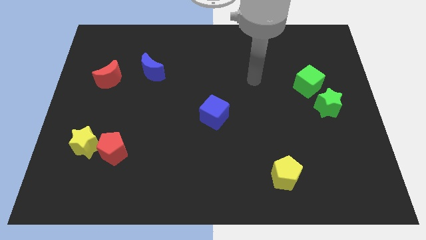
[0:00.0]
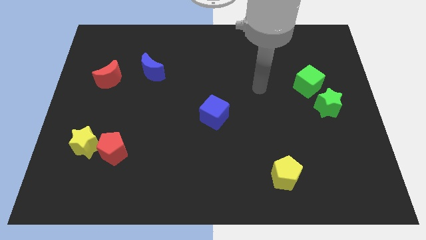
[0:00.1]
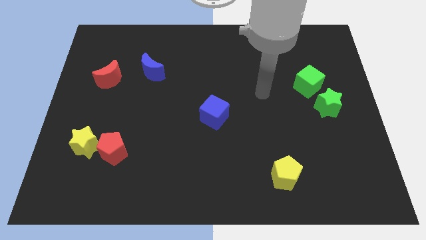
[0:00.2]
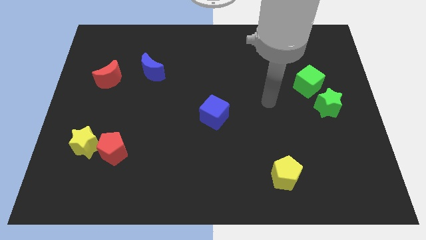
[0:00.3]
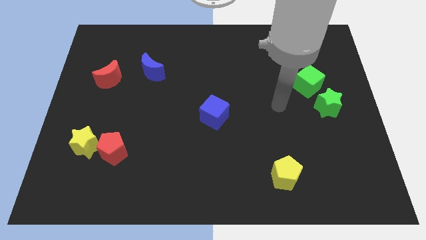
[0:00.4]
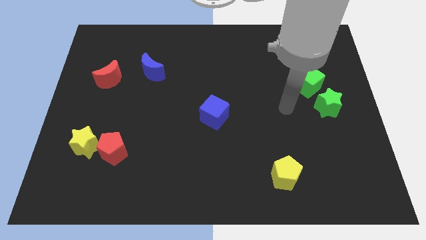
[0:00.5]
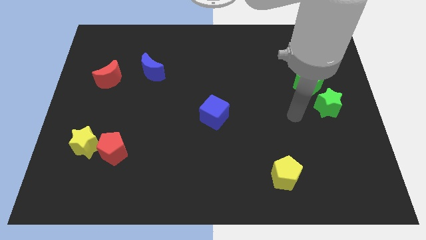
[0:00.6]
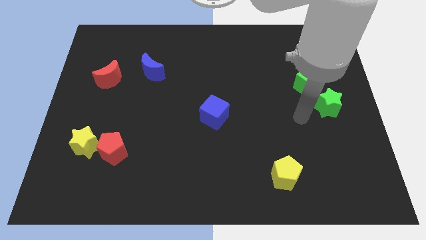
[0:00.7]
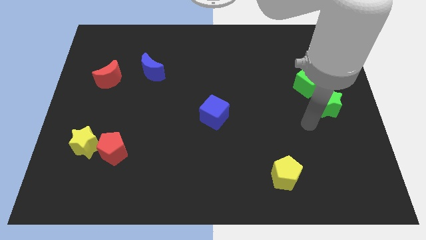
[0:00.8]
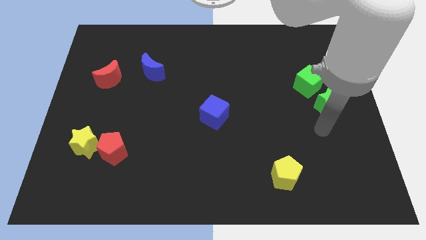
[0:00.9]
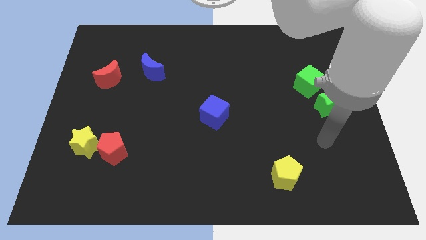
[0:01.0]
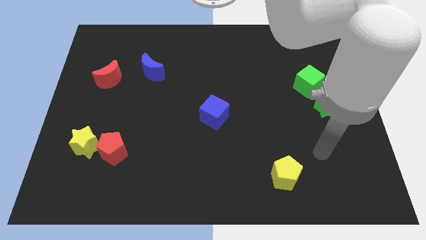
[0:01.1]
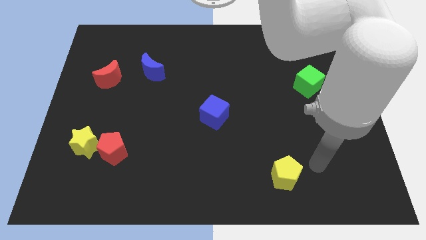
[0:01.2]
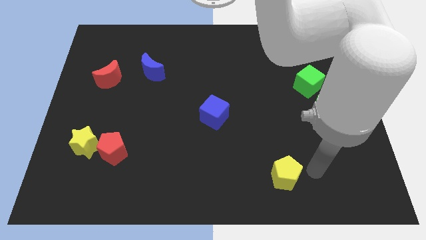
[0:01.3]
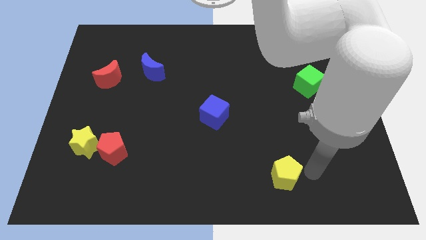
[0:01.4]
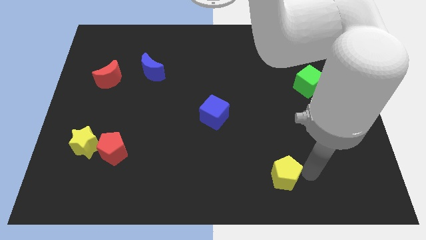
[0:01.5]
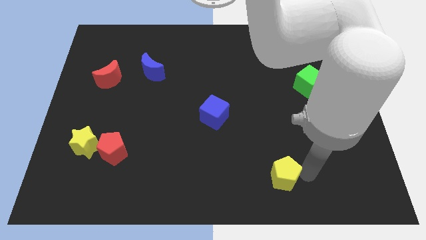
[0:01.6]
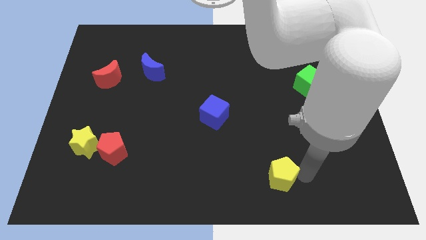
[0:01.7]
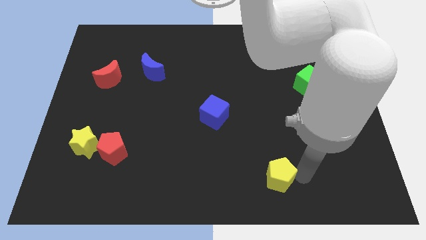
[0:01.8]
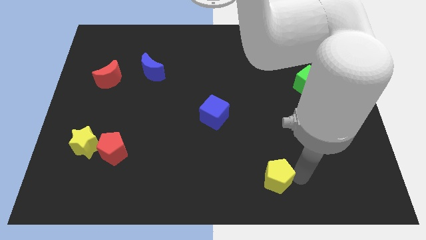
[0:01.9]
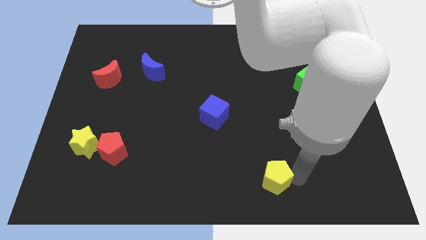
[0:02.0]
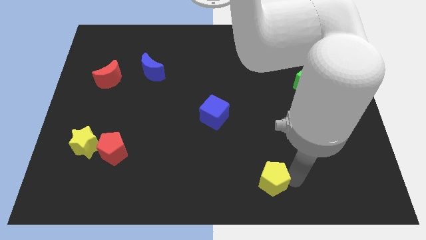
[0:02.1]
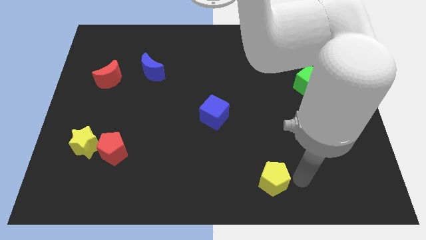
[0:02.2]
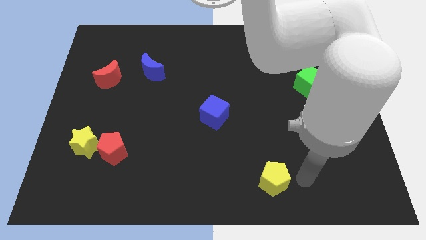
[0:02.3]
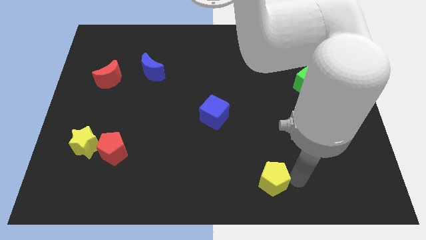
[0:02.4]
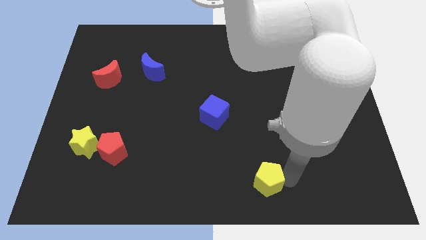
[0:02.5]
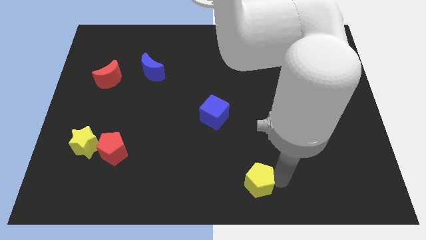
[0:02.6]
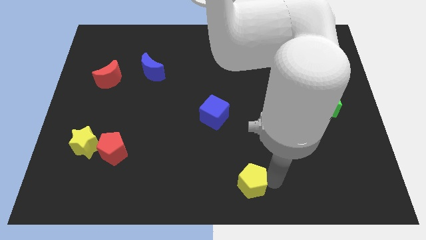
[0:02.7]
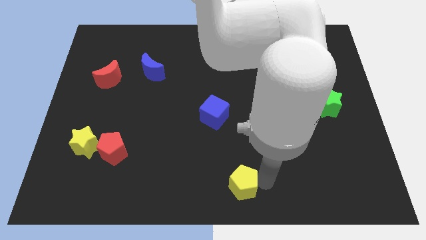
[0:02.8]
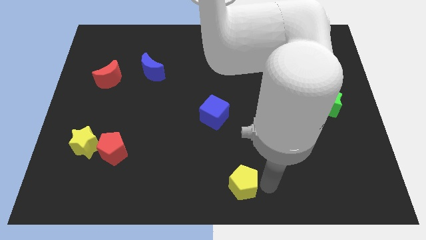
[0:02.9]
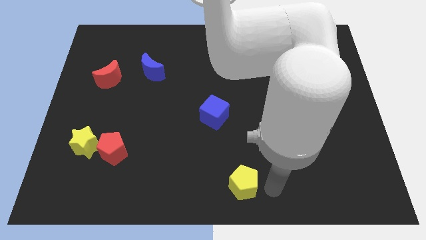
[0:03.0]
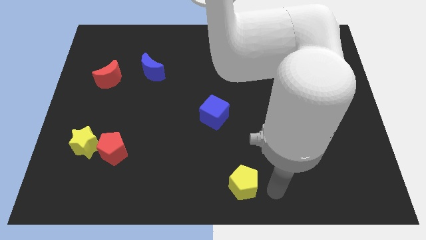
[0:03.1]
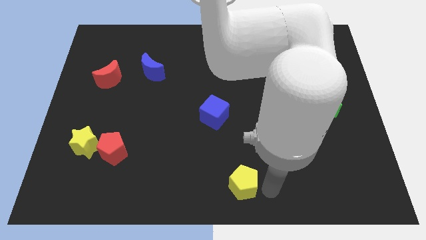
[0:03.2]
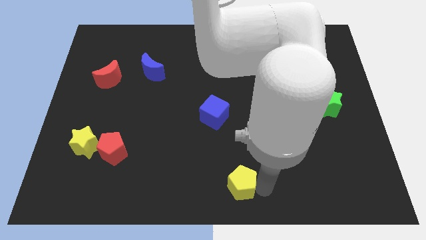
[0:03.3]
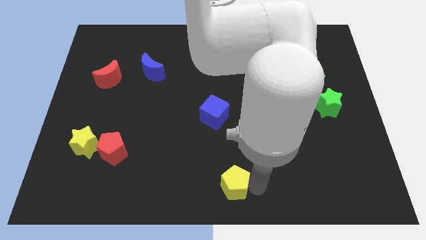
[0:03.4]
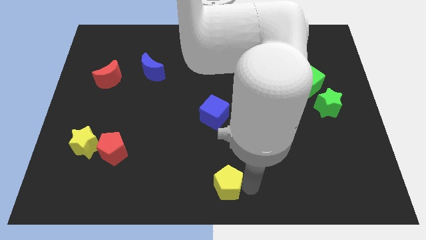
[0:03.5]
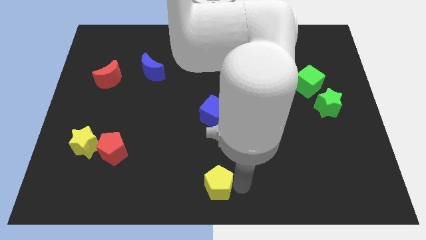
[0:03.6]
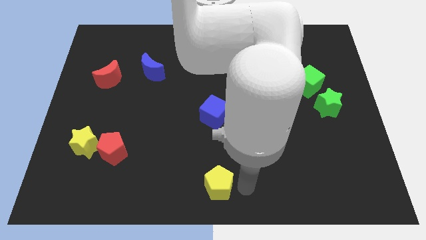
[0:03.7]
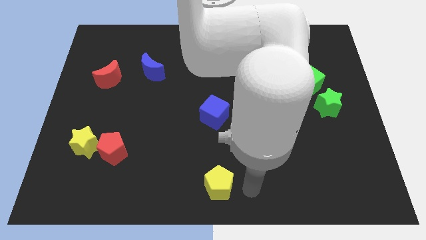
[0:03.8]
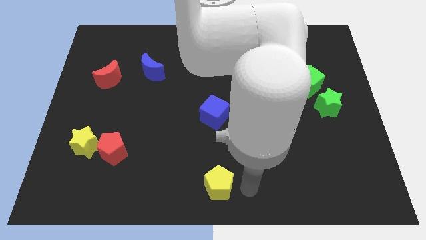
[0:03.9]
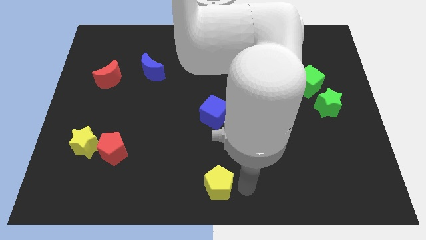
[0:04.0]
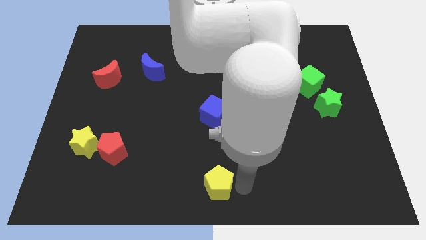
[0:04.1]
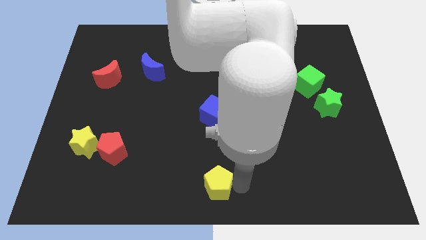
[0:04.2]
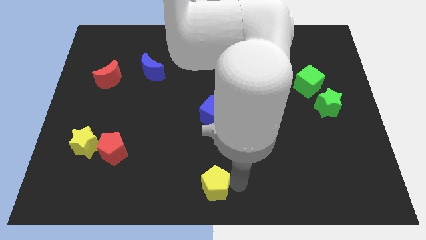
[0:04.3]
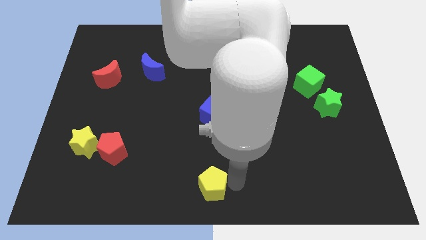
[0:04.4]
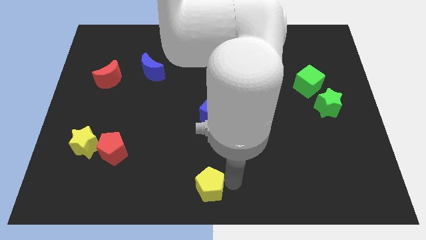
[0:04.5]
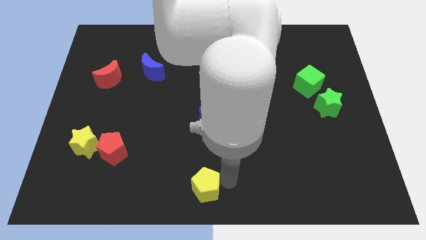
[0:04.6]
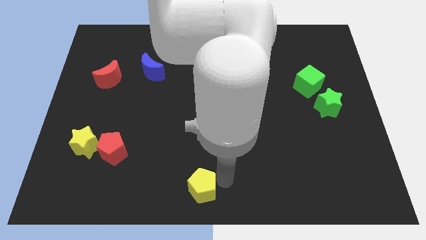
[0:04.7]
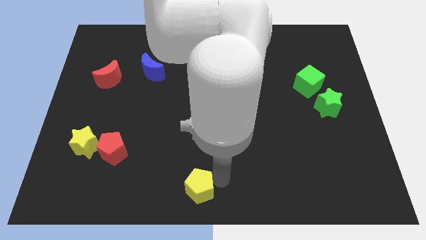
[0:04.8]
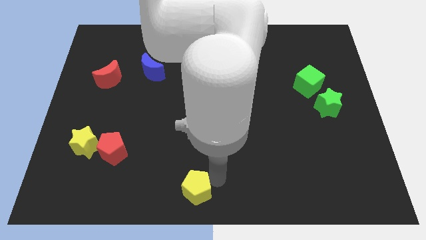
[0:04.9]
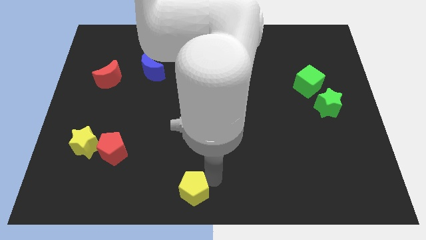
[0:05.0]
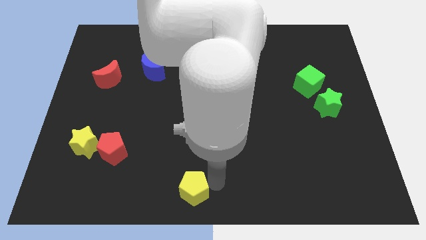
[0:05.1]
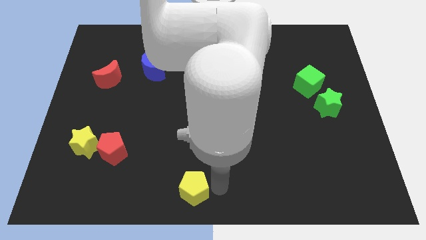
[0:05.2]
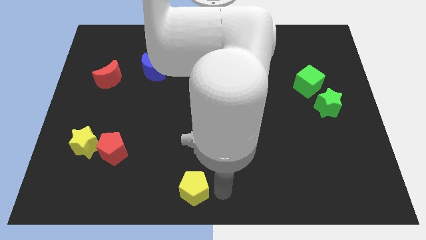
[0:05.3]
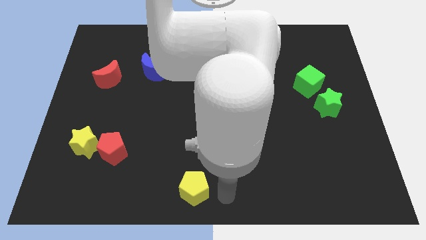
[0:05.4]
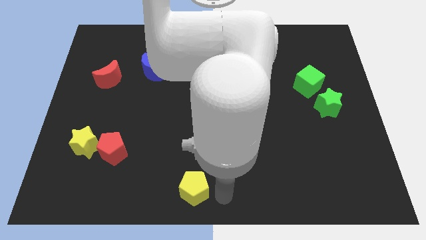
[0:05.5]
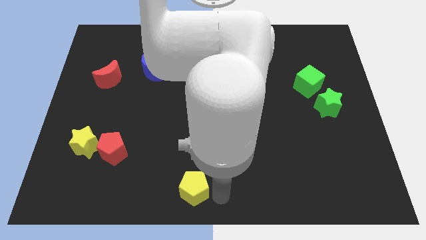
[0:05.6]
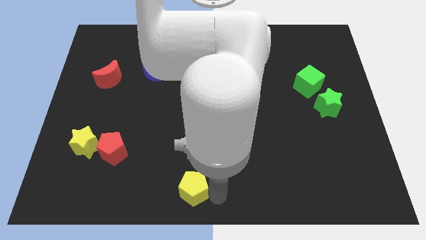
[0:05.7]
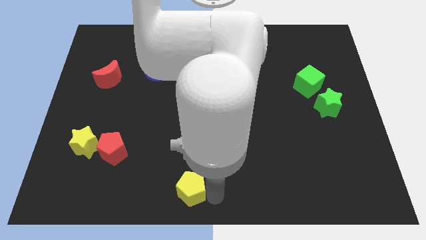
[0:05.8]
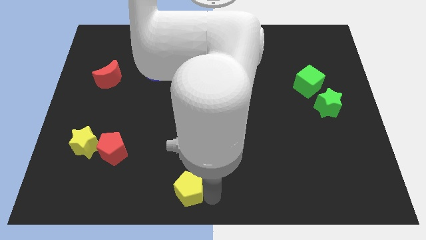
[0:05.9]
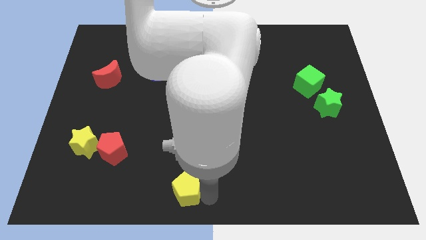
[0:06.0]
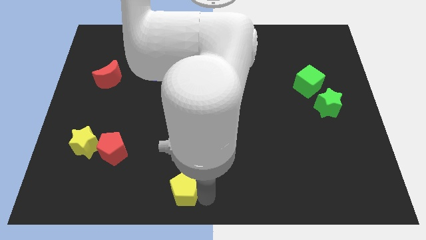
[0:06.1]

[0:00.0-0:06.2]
slide the yellow pentagon to the left

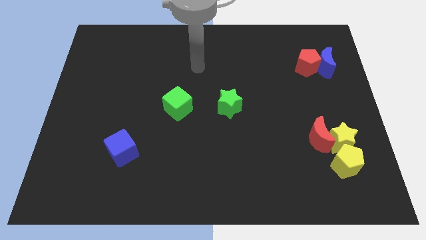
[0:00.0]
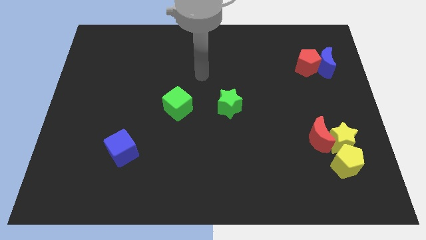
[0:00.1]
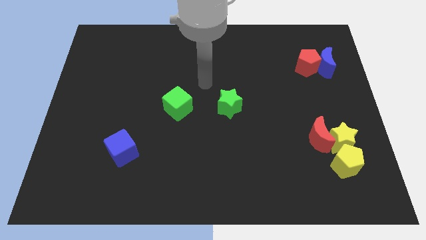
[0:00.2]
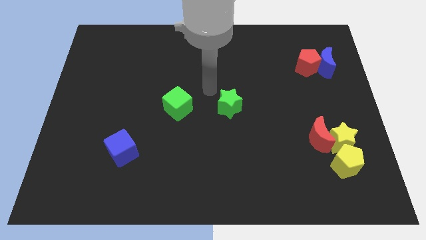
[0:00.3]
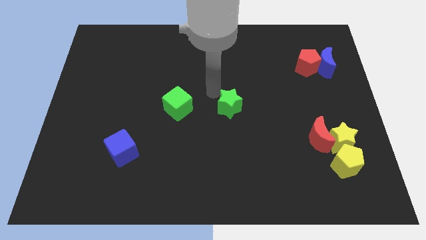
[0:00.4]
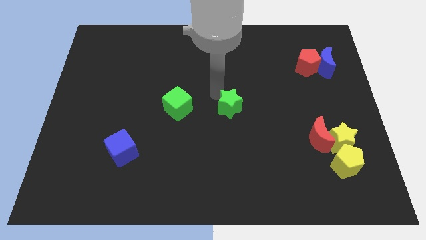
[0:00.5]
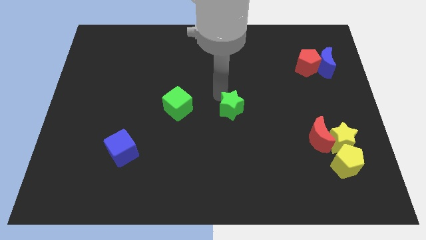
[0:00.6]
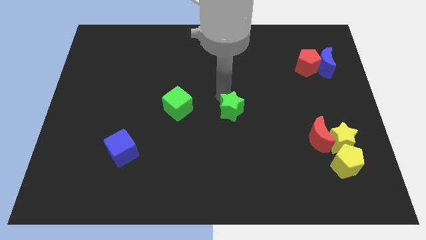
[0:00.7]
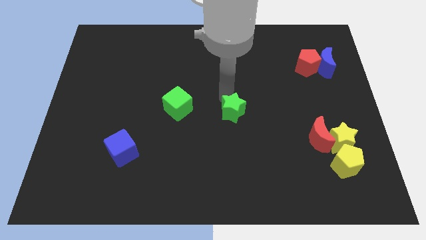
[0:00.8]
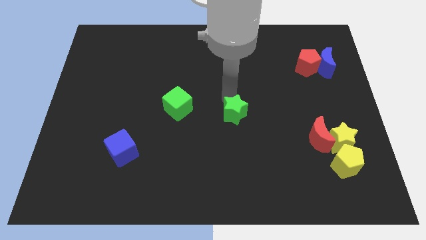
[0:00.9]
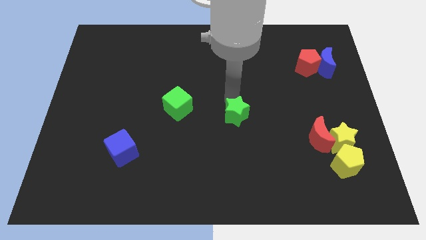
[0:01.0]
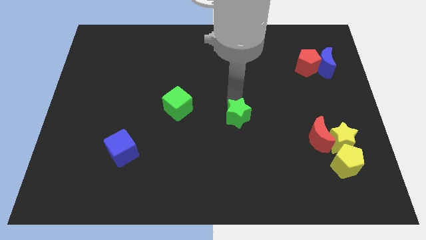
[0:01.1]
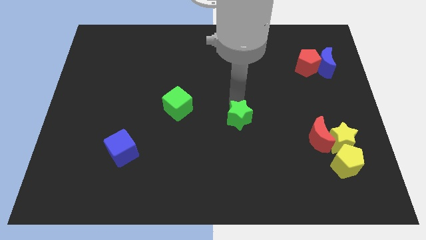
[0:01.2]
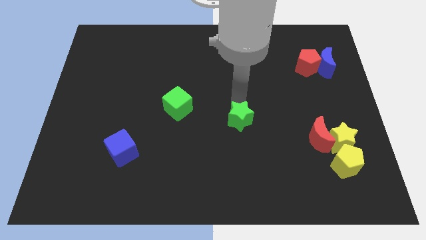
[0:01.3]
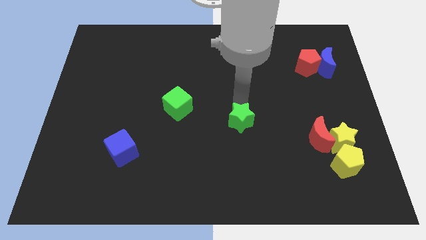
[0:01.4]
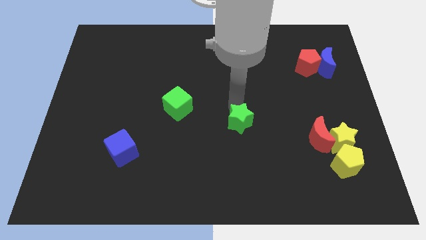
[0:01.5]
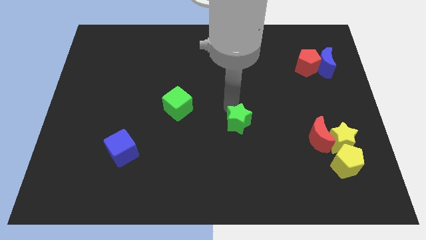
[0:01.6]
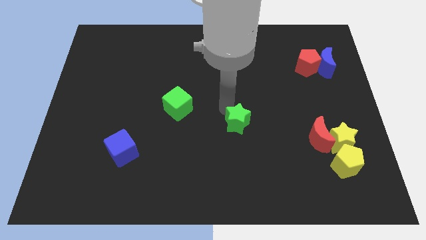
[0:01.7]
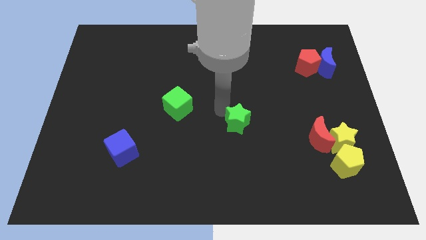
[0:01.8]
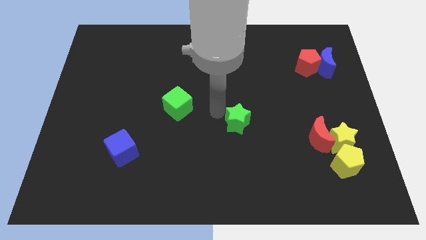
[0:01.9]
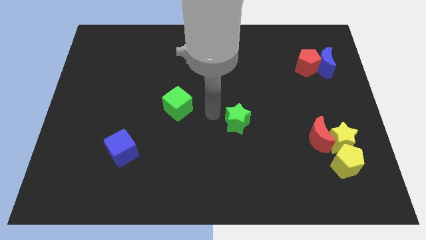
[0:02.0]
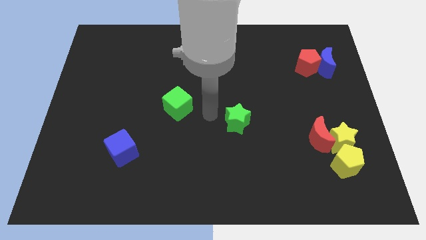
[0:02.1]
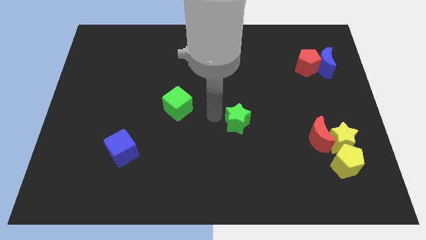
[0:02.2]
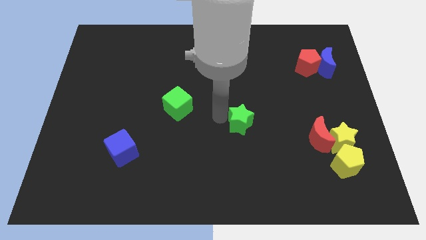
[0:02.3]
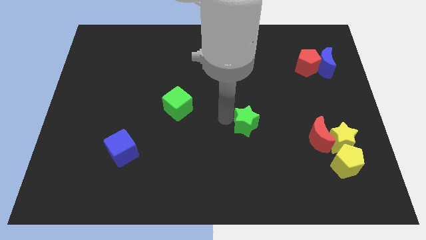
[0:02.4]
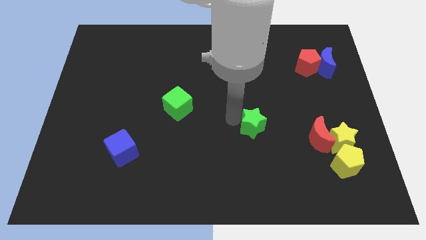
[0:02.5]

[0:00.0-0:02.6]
move the green star downwards and then to the right slightly
